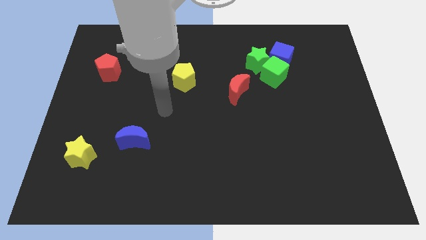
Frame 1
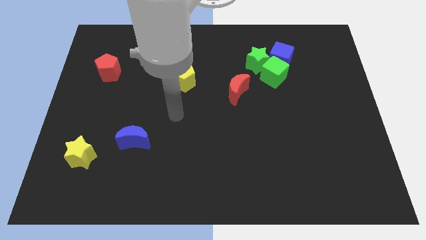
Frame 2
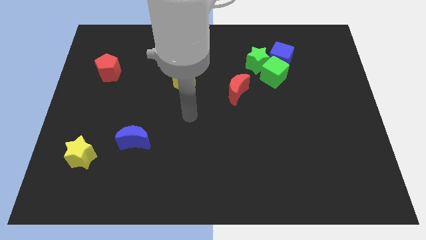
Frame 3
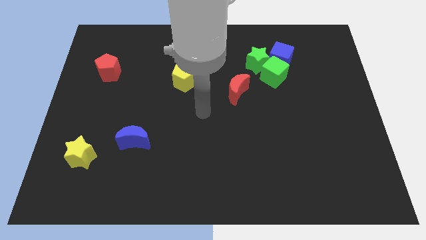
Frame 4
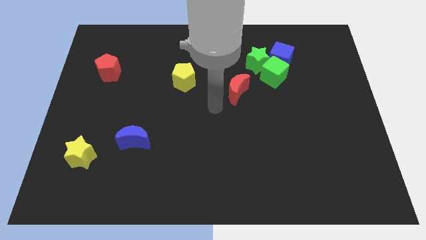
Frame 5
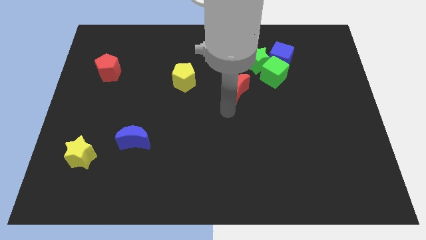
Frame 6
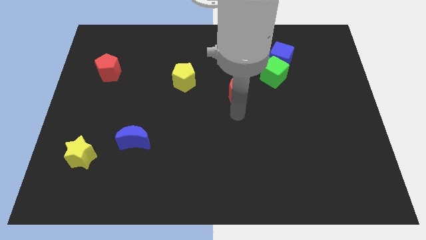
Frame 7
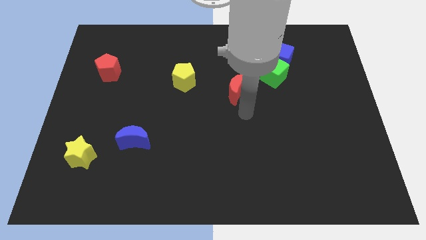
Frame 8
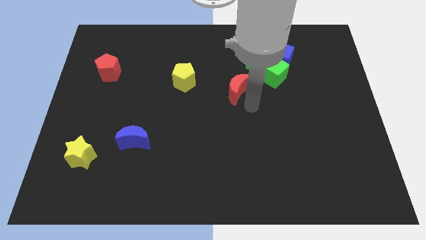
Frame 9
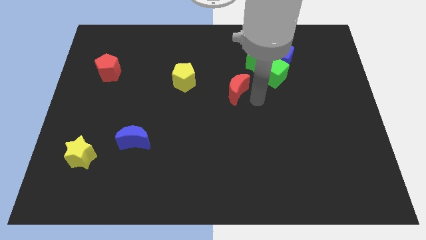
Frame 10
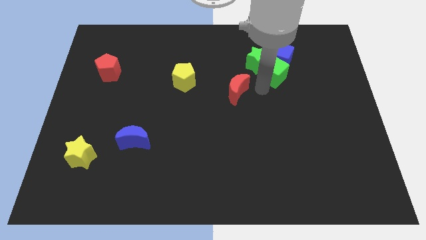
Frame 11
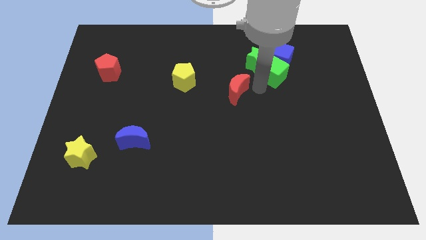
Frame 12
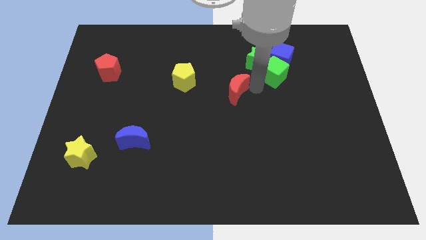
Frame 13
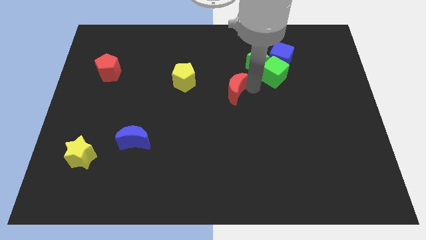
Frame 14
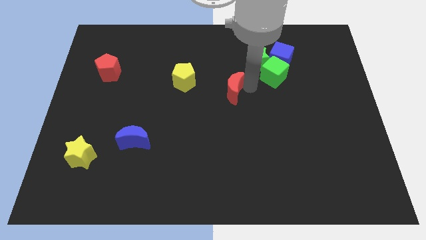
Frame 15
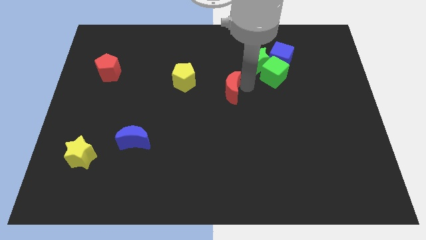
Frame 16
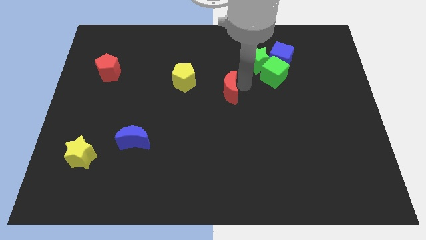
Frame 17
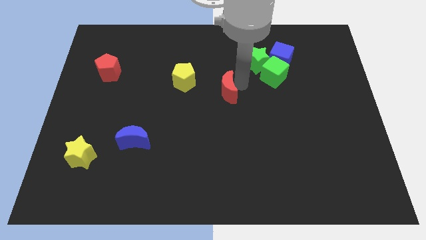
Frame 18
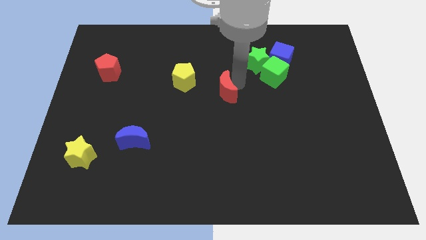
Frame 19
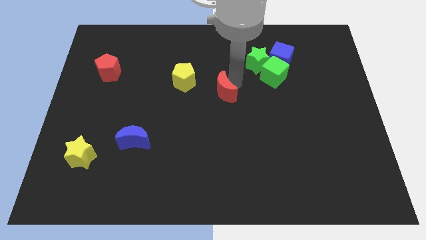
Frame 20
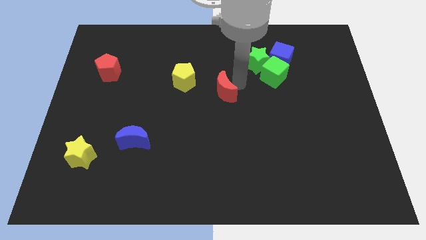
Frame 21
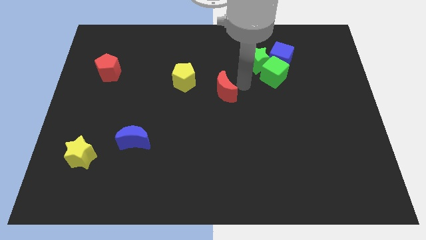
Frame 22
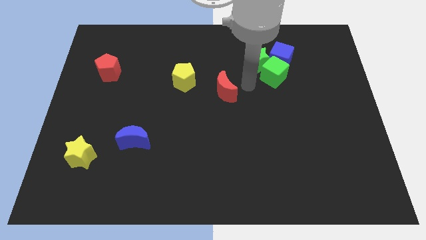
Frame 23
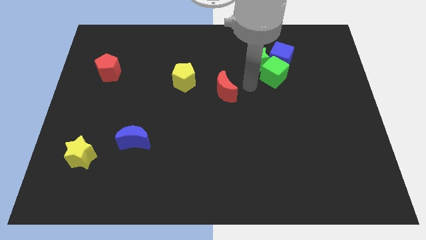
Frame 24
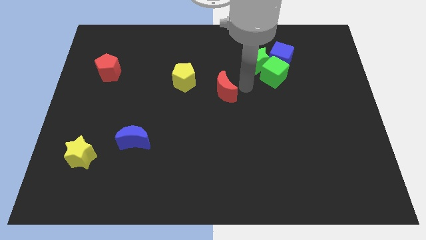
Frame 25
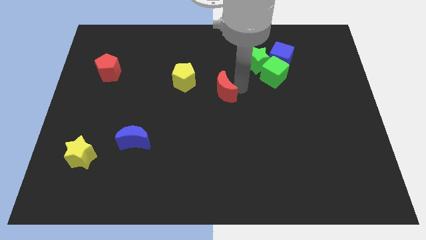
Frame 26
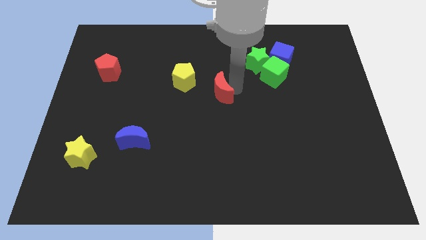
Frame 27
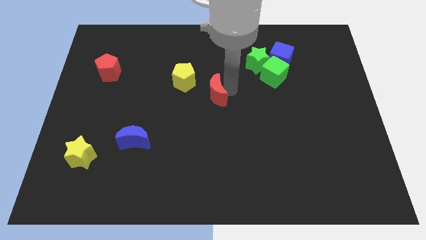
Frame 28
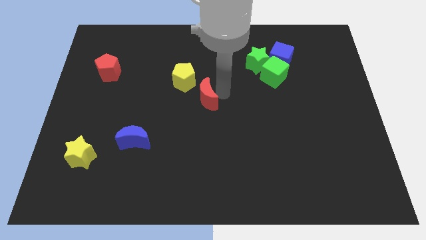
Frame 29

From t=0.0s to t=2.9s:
move the red moon somewhat to the left

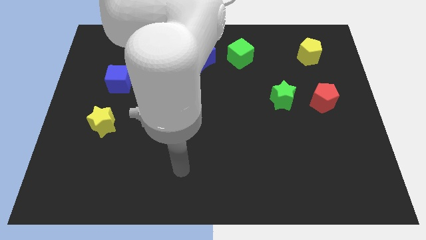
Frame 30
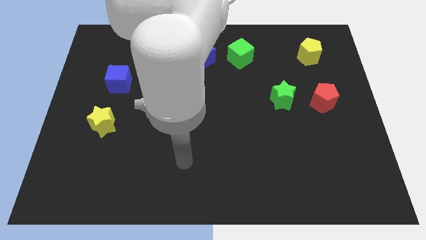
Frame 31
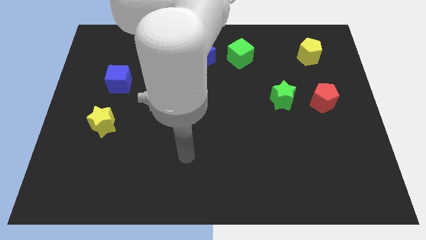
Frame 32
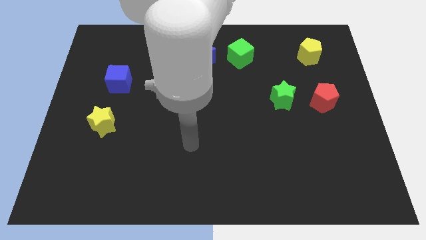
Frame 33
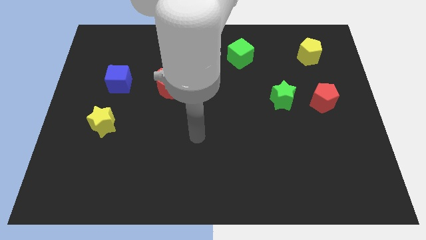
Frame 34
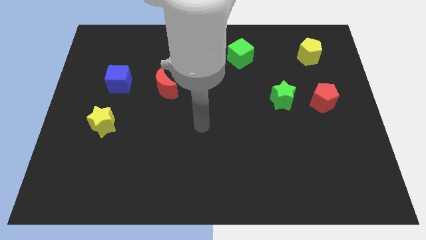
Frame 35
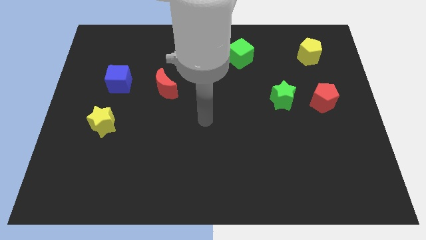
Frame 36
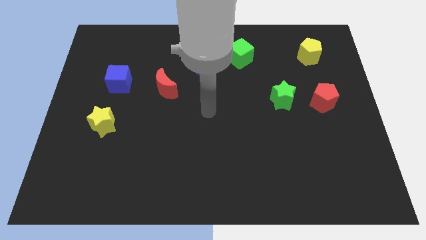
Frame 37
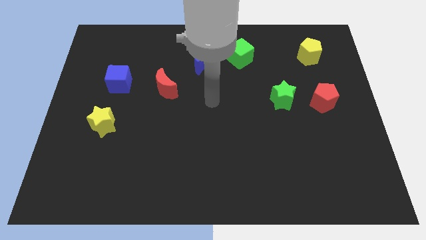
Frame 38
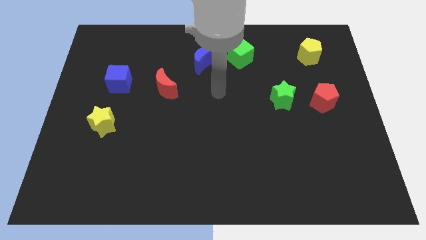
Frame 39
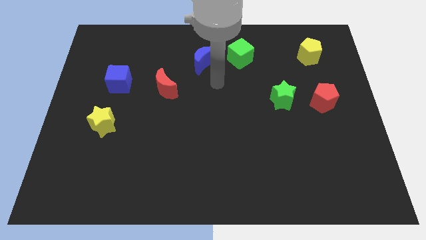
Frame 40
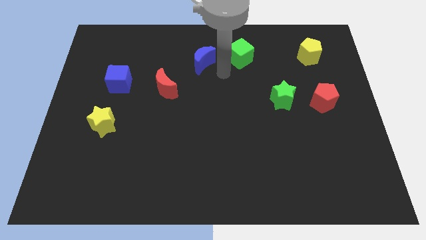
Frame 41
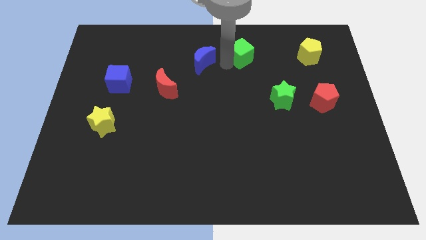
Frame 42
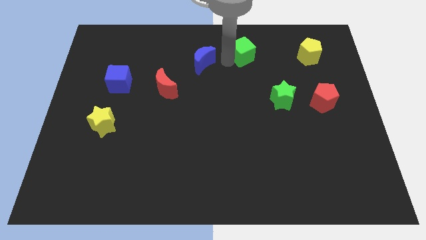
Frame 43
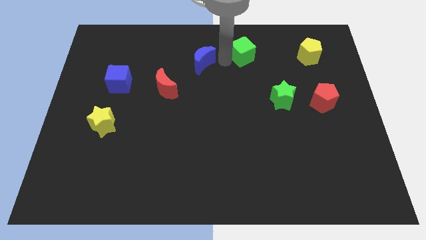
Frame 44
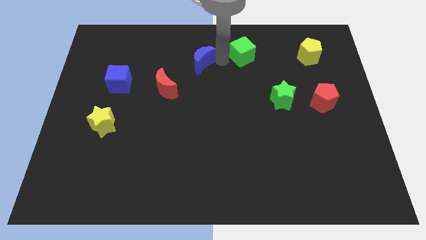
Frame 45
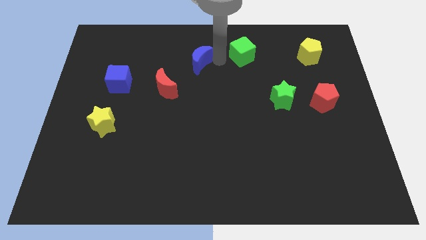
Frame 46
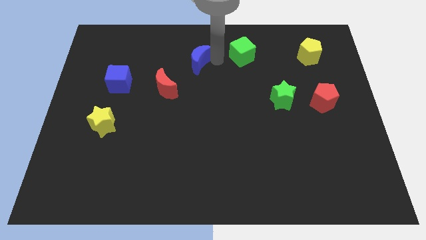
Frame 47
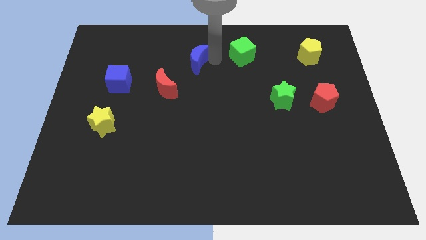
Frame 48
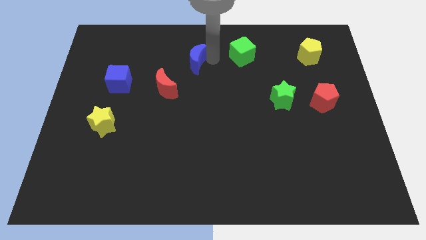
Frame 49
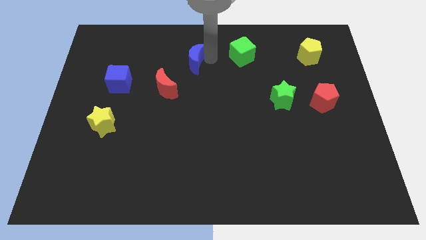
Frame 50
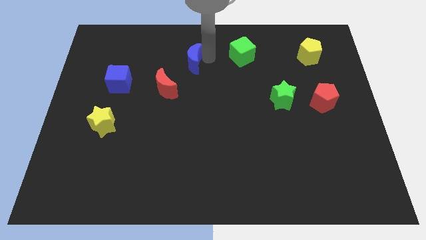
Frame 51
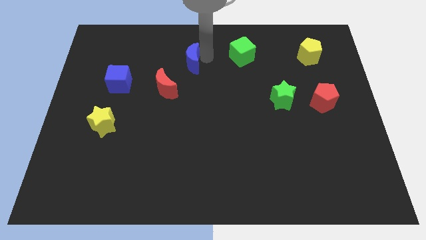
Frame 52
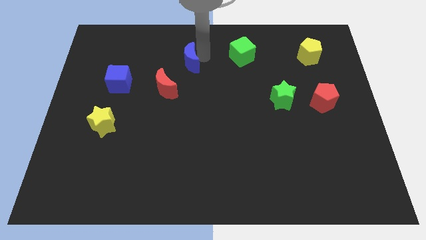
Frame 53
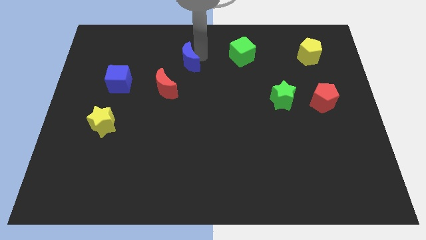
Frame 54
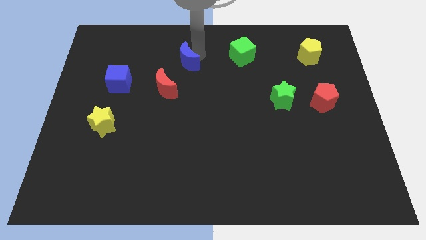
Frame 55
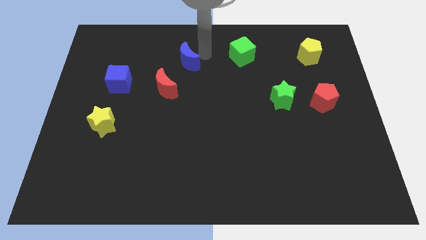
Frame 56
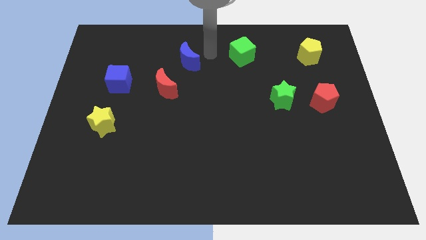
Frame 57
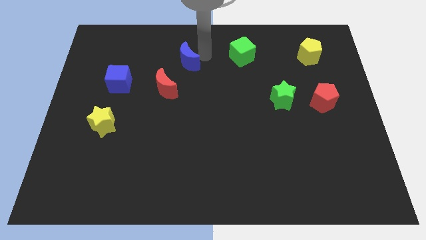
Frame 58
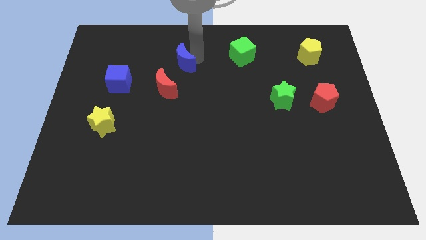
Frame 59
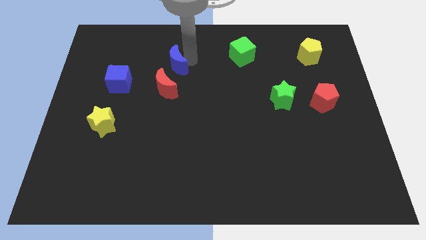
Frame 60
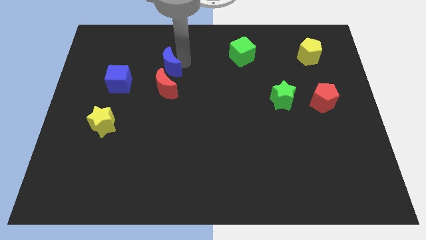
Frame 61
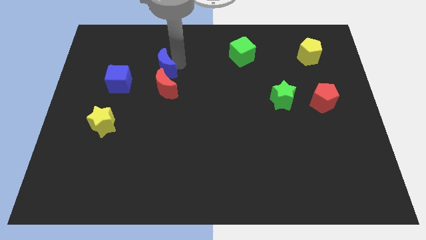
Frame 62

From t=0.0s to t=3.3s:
slightly slide the blue moon down and to the left diagonally

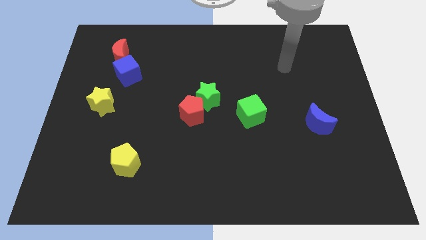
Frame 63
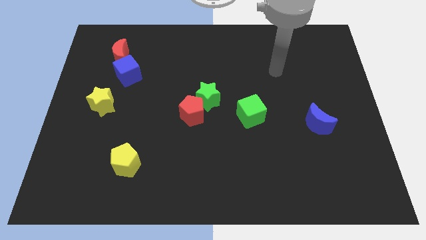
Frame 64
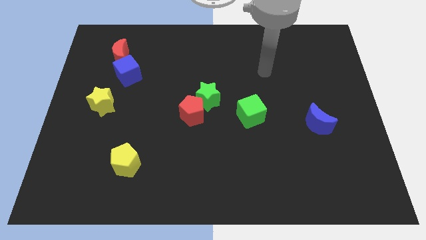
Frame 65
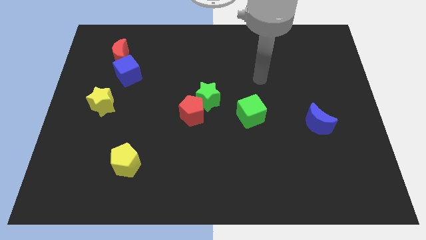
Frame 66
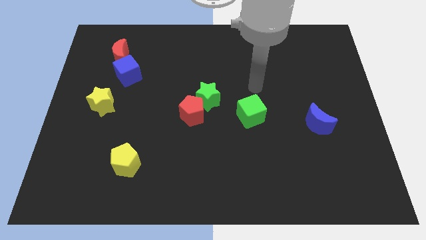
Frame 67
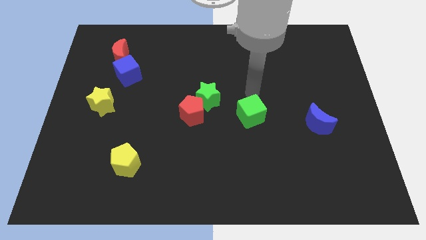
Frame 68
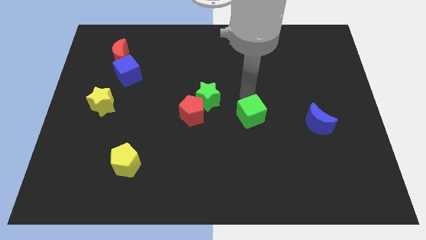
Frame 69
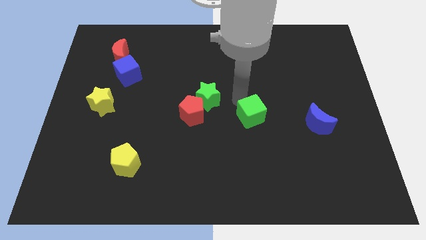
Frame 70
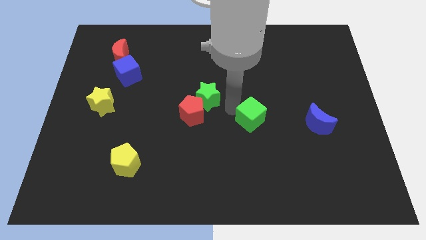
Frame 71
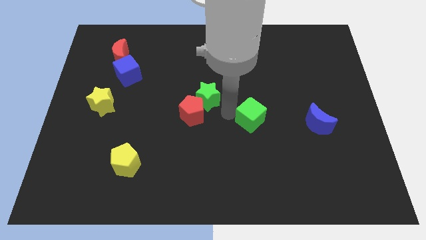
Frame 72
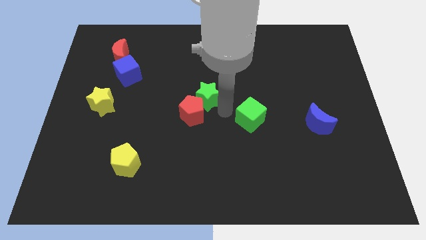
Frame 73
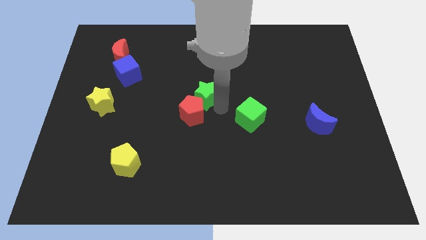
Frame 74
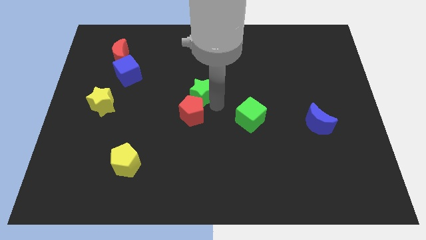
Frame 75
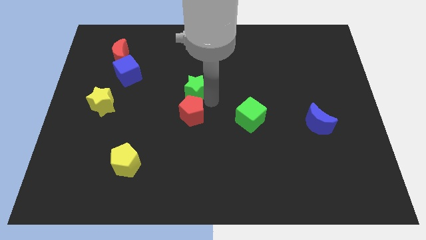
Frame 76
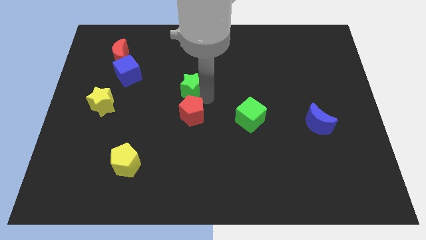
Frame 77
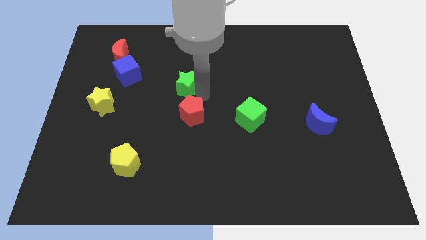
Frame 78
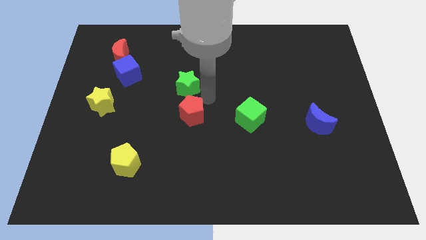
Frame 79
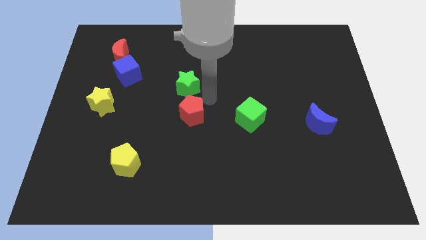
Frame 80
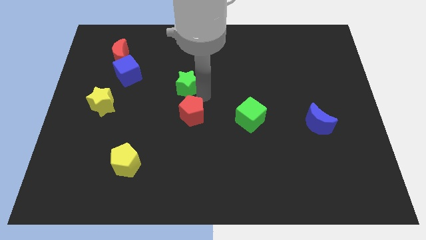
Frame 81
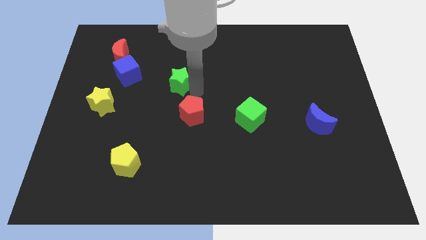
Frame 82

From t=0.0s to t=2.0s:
move the green star slightly up and left diagonally

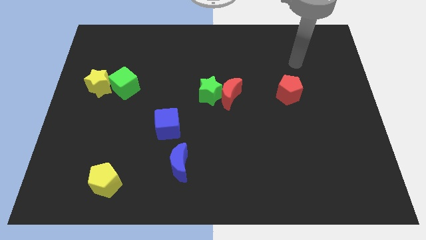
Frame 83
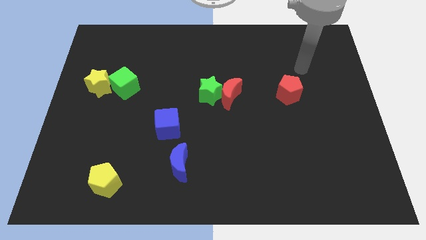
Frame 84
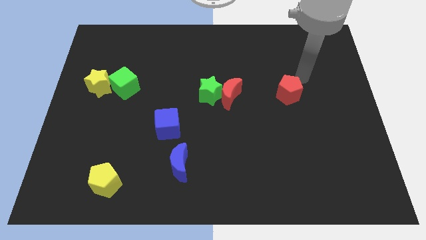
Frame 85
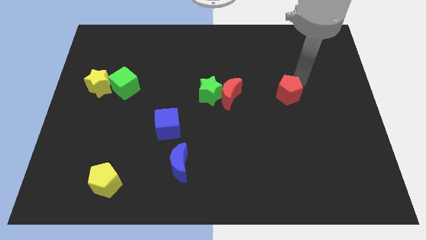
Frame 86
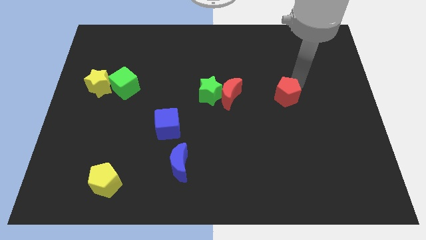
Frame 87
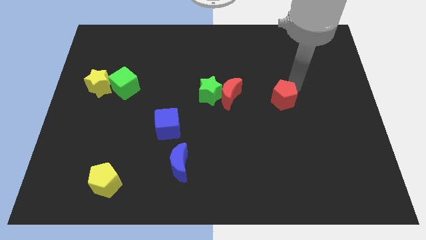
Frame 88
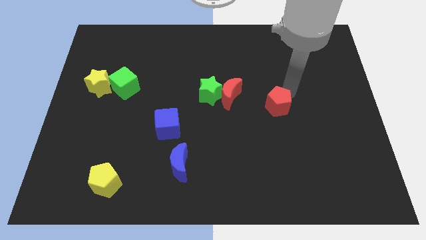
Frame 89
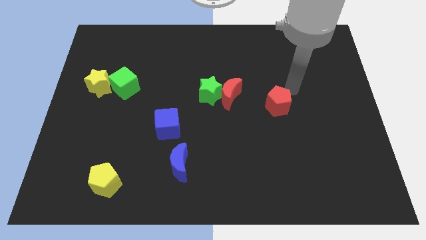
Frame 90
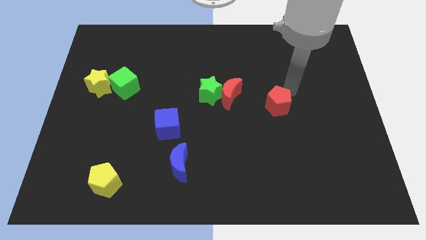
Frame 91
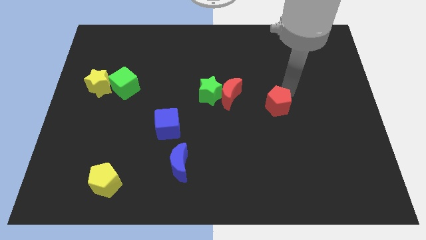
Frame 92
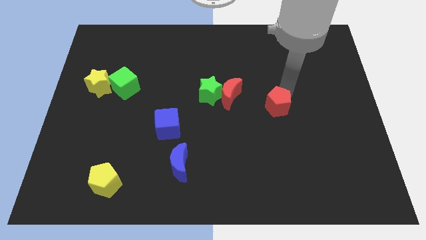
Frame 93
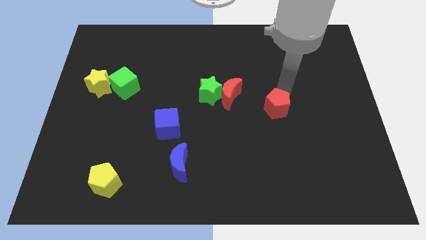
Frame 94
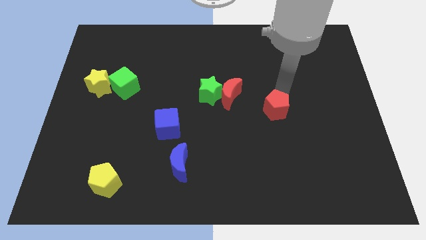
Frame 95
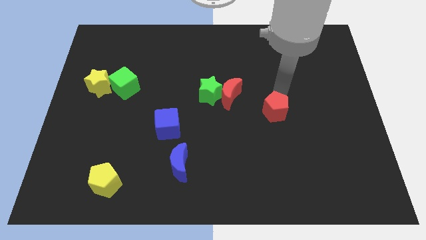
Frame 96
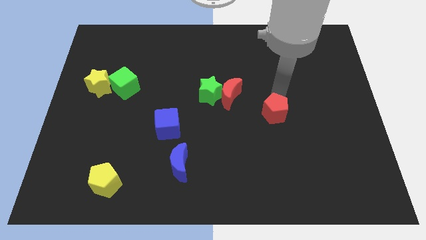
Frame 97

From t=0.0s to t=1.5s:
slightly slide the red pentagon downwards and to the left diagonally
